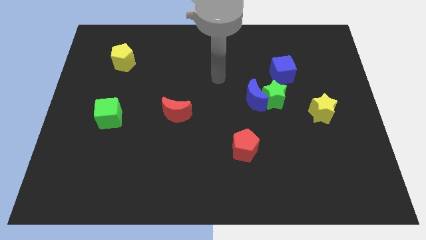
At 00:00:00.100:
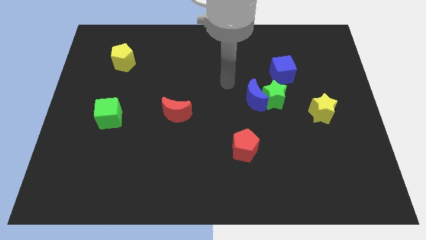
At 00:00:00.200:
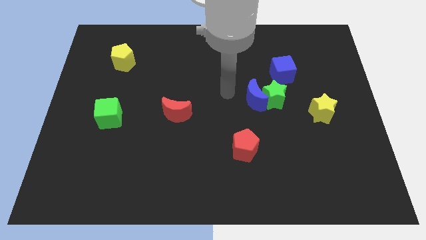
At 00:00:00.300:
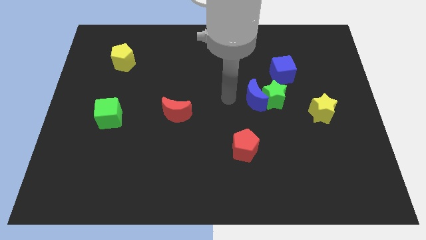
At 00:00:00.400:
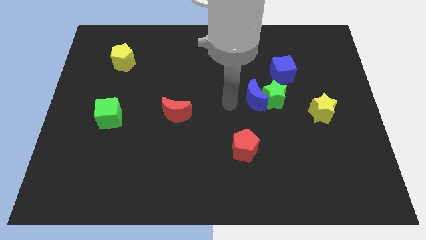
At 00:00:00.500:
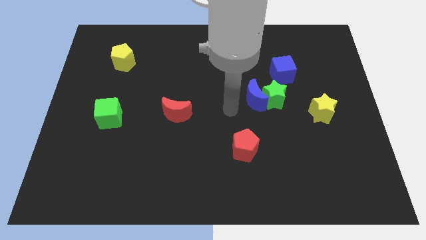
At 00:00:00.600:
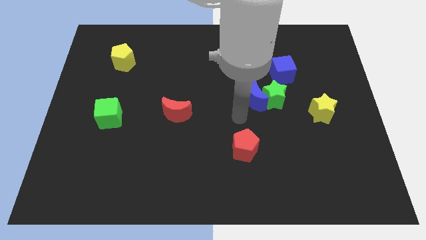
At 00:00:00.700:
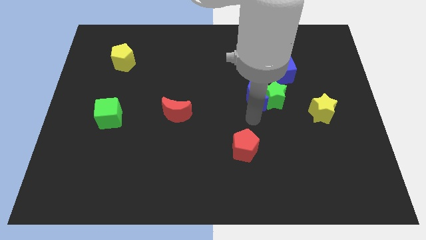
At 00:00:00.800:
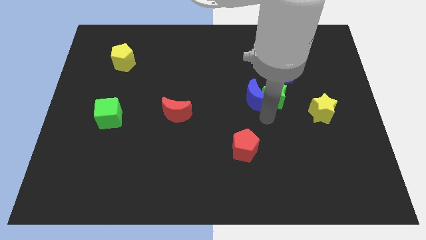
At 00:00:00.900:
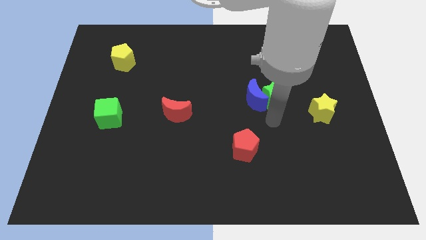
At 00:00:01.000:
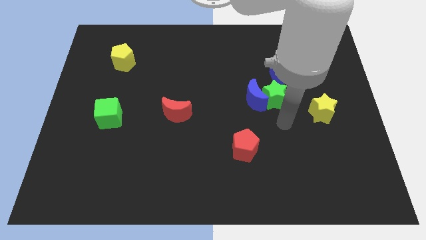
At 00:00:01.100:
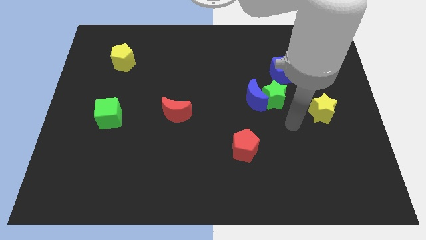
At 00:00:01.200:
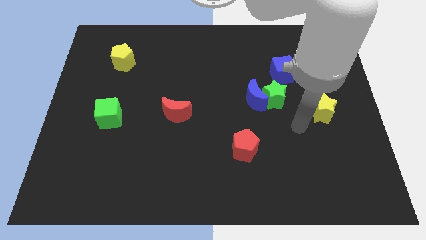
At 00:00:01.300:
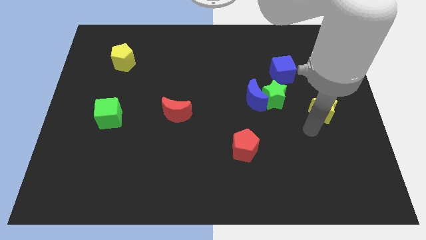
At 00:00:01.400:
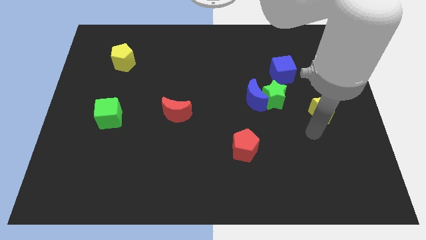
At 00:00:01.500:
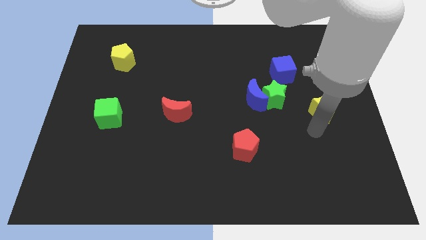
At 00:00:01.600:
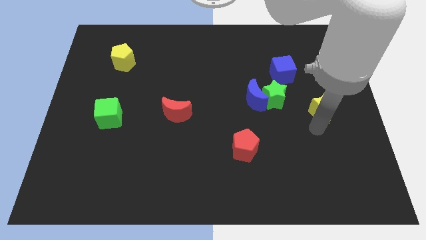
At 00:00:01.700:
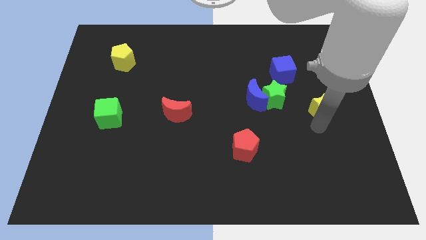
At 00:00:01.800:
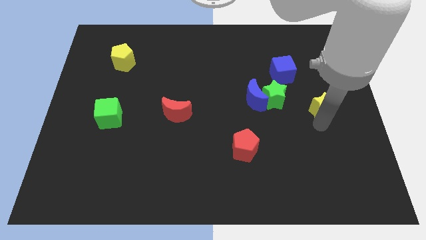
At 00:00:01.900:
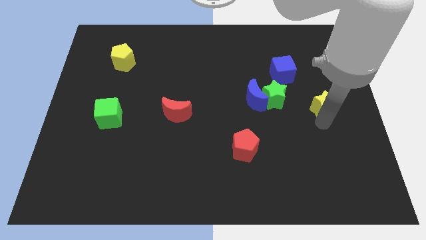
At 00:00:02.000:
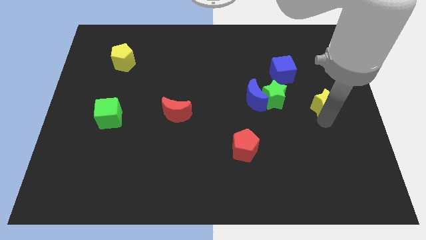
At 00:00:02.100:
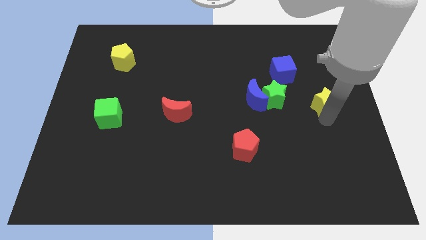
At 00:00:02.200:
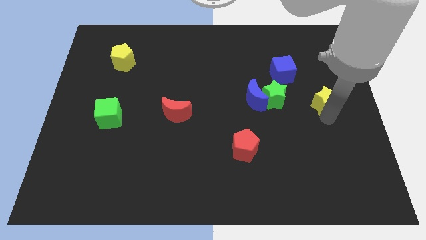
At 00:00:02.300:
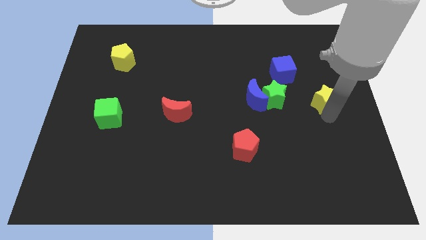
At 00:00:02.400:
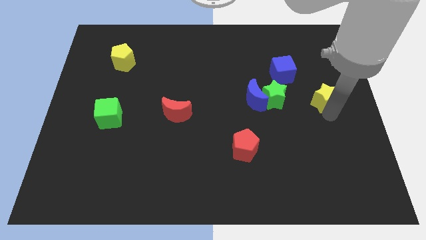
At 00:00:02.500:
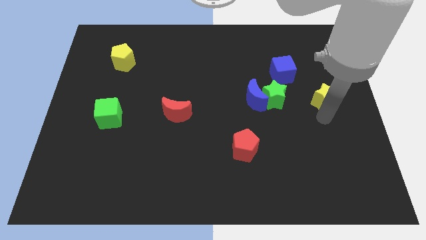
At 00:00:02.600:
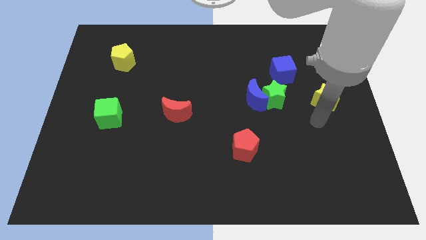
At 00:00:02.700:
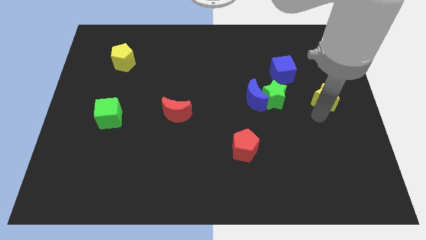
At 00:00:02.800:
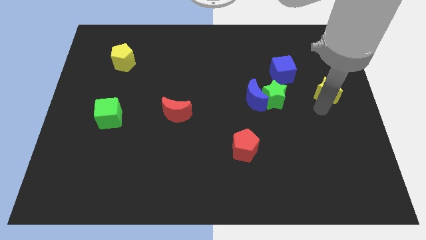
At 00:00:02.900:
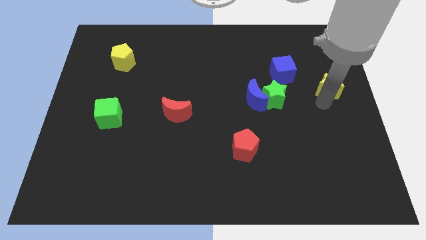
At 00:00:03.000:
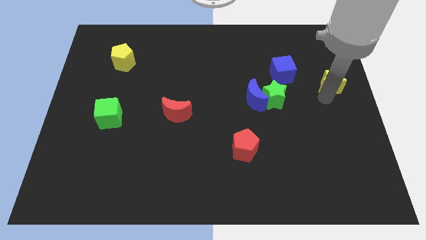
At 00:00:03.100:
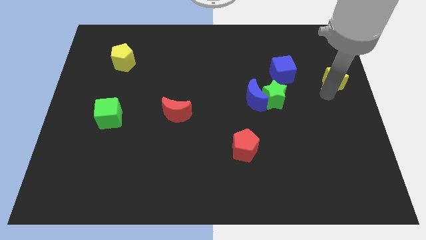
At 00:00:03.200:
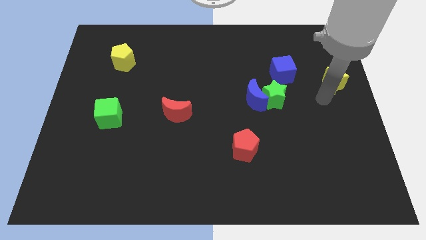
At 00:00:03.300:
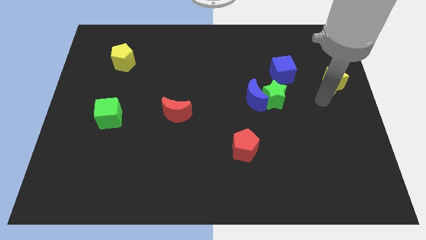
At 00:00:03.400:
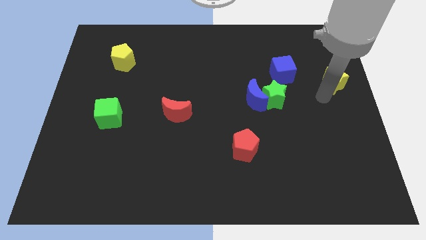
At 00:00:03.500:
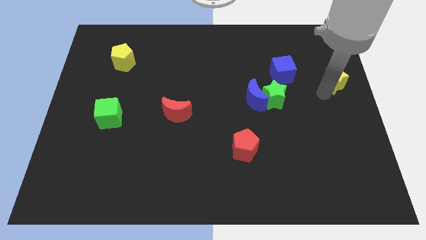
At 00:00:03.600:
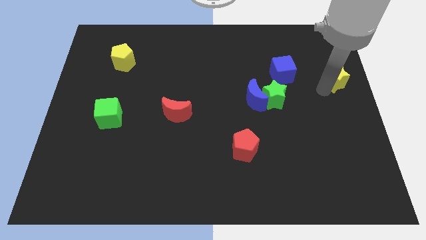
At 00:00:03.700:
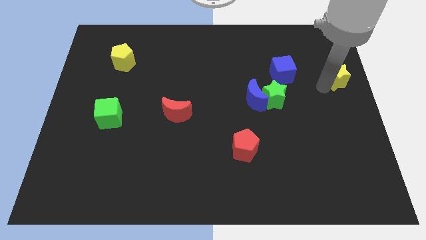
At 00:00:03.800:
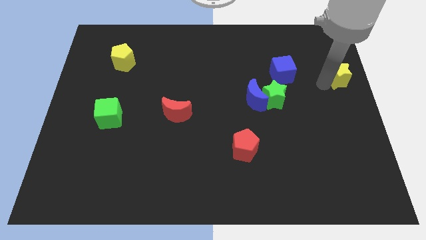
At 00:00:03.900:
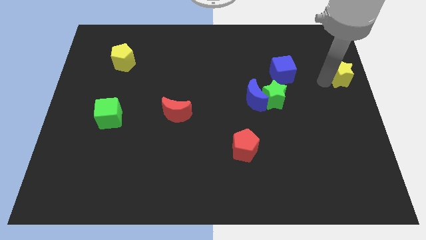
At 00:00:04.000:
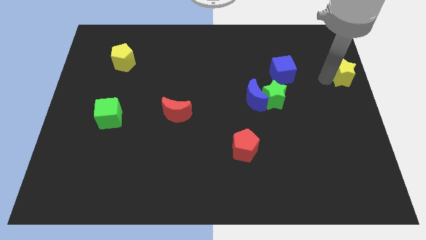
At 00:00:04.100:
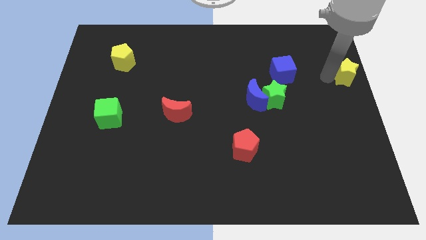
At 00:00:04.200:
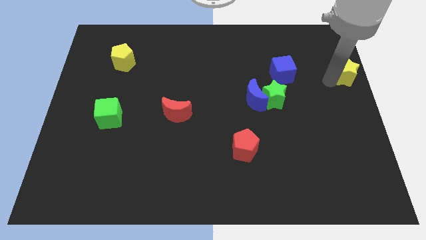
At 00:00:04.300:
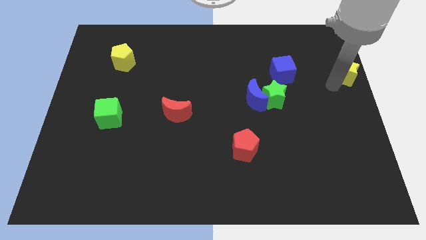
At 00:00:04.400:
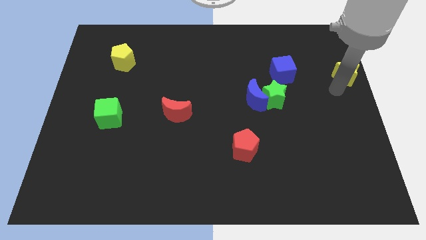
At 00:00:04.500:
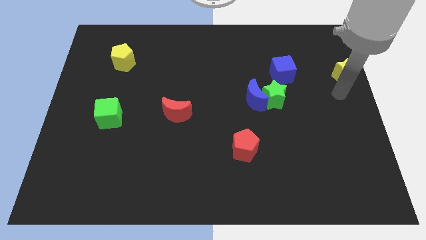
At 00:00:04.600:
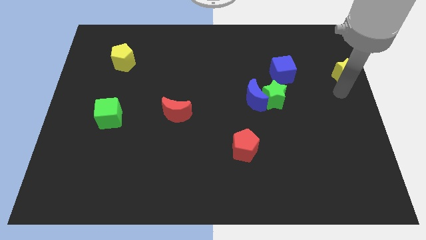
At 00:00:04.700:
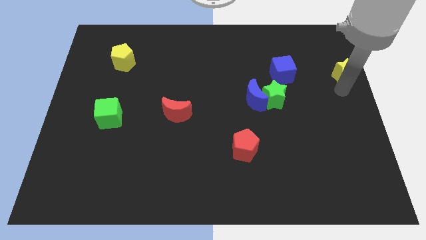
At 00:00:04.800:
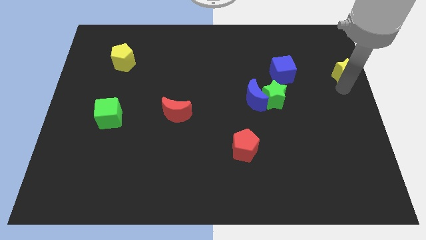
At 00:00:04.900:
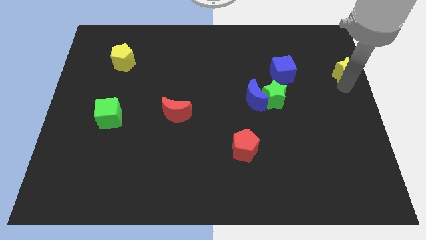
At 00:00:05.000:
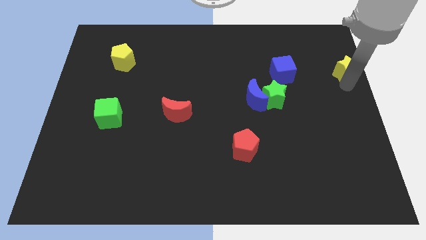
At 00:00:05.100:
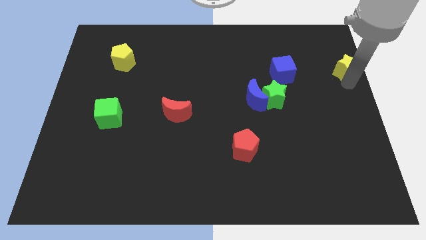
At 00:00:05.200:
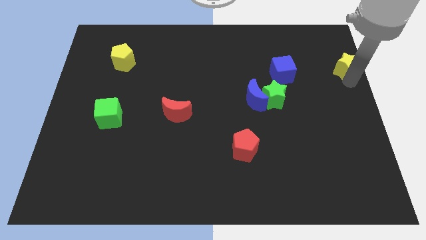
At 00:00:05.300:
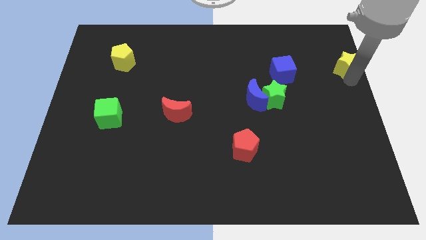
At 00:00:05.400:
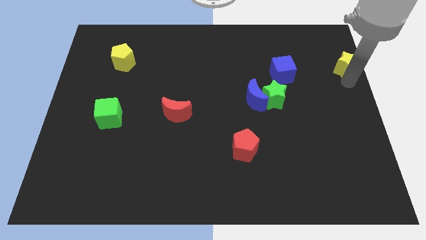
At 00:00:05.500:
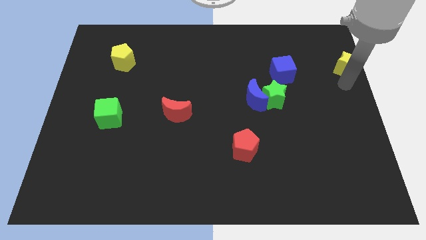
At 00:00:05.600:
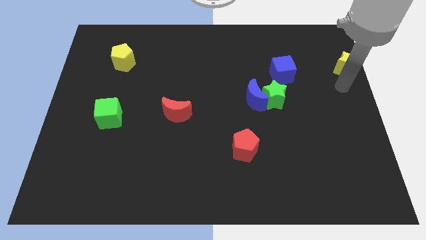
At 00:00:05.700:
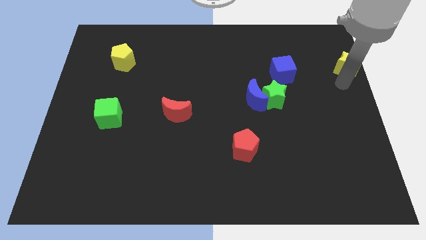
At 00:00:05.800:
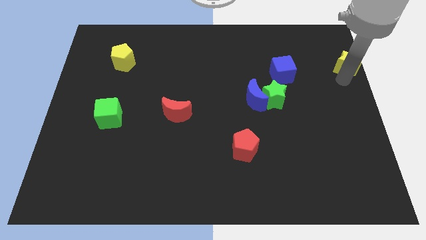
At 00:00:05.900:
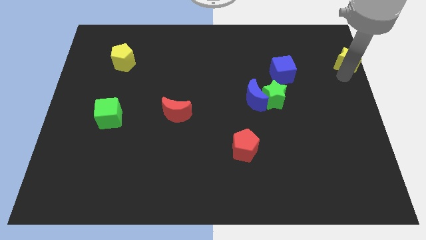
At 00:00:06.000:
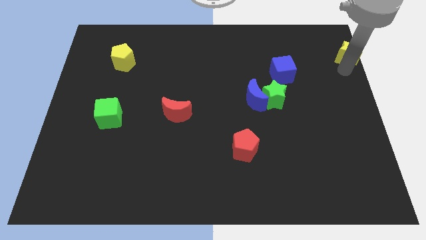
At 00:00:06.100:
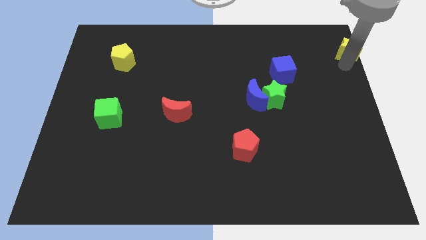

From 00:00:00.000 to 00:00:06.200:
put the yellow star to the top right corner
